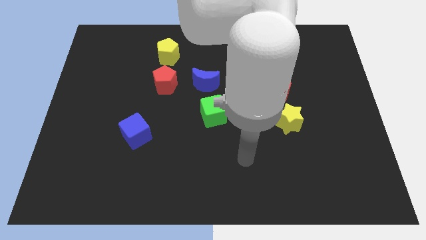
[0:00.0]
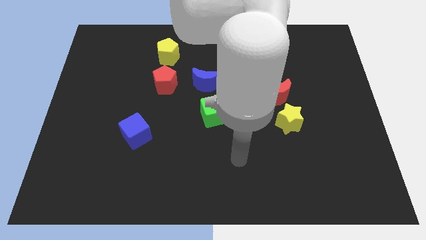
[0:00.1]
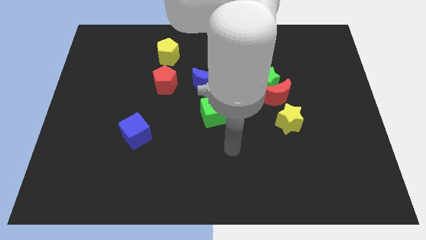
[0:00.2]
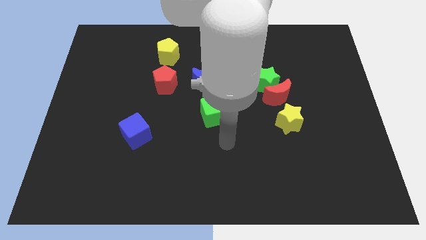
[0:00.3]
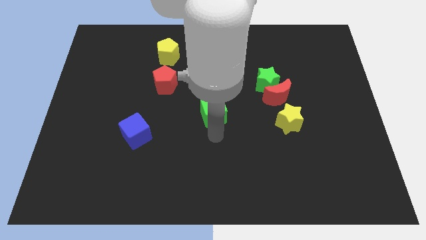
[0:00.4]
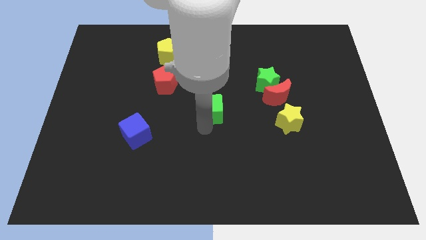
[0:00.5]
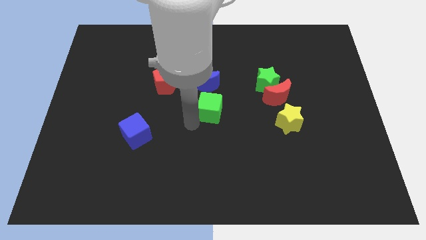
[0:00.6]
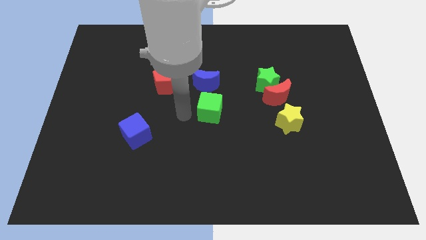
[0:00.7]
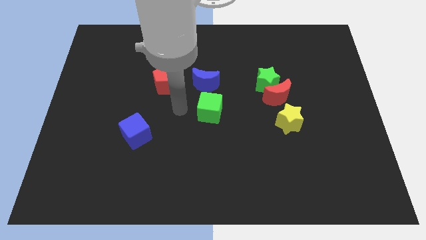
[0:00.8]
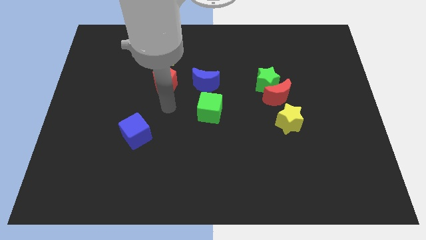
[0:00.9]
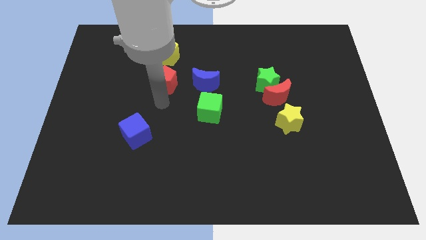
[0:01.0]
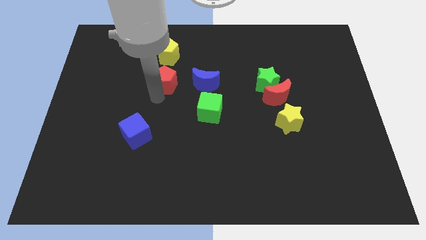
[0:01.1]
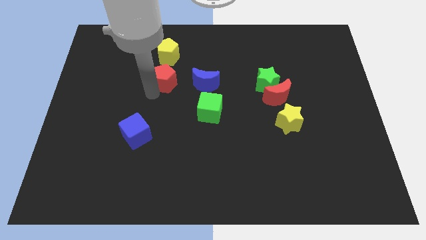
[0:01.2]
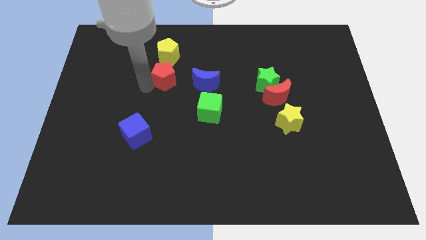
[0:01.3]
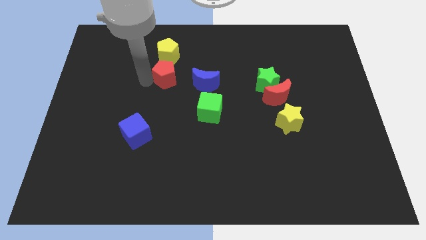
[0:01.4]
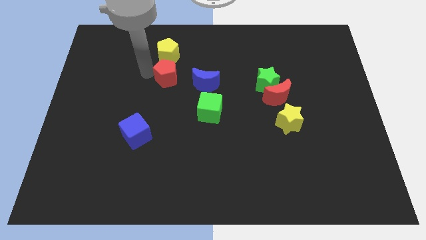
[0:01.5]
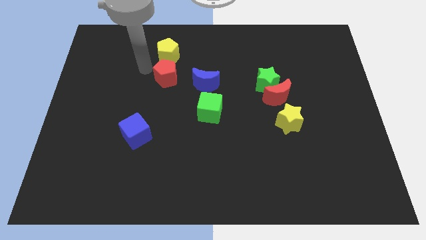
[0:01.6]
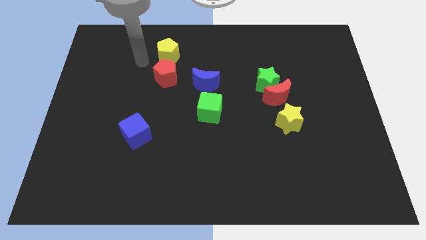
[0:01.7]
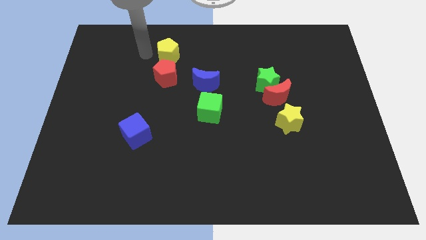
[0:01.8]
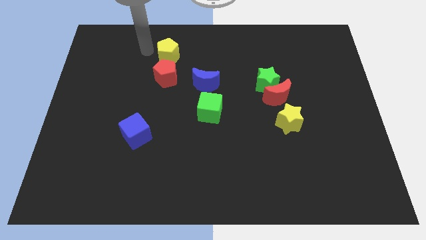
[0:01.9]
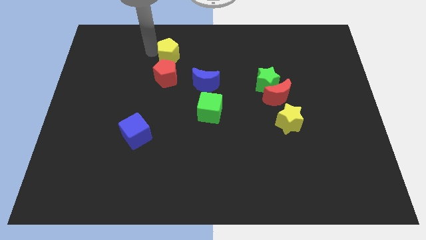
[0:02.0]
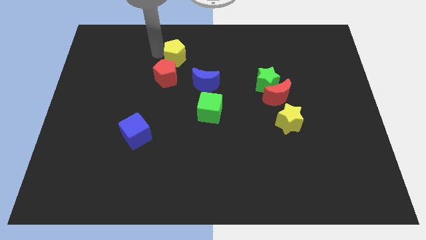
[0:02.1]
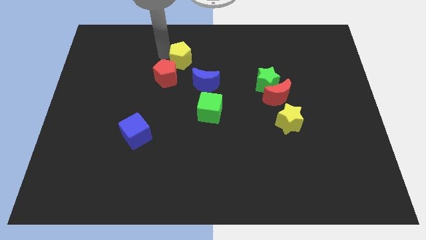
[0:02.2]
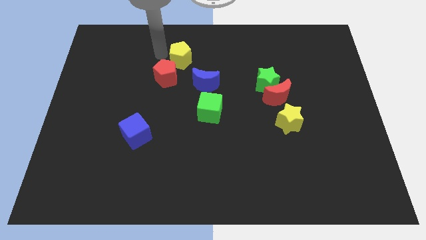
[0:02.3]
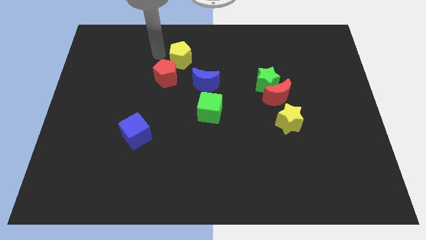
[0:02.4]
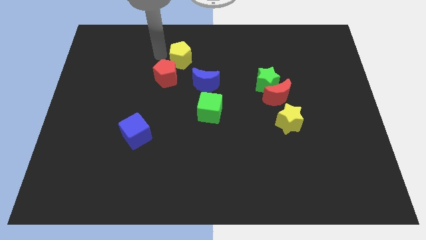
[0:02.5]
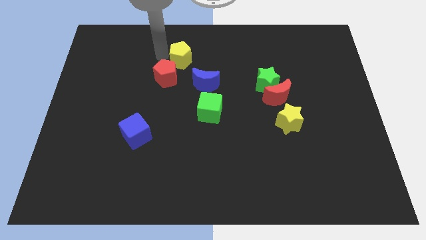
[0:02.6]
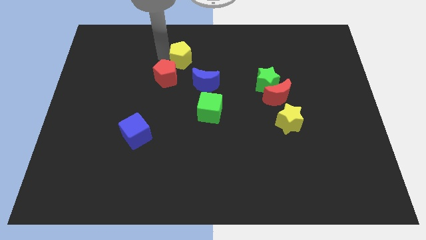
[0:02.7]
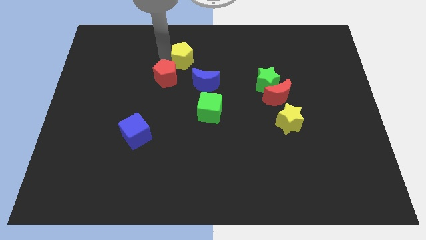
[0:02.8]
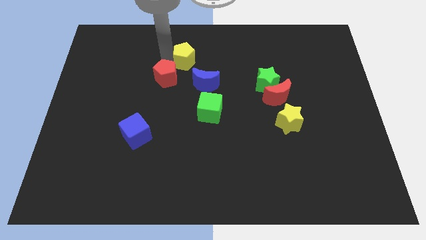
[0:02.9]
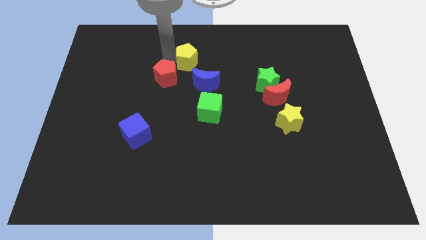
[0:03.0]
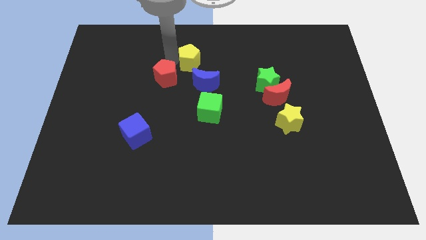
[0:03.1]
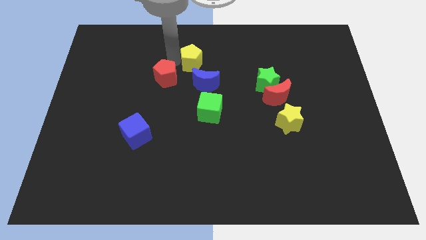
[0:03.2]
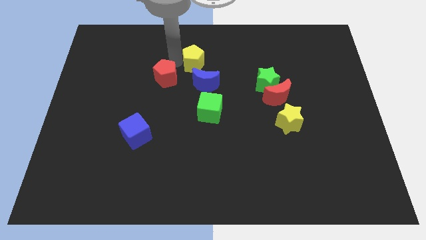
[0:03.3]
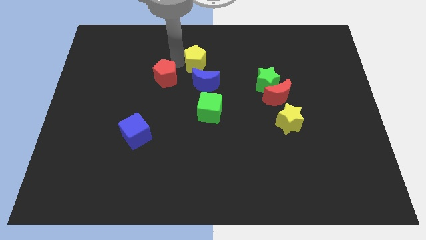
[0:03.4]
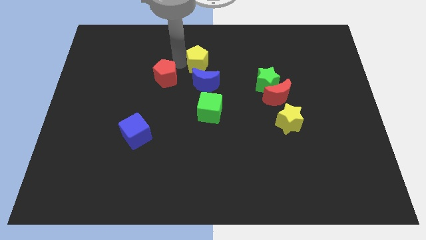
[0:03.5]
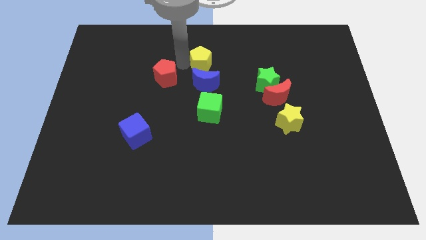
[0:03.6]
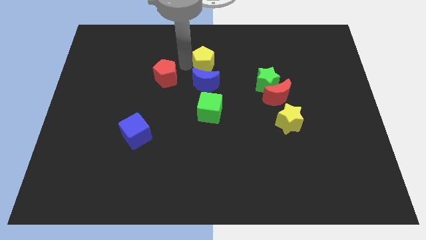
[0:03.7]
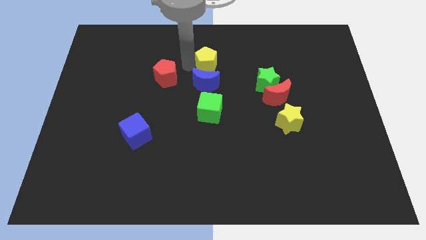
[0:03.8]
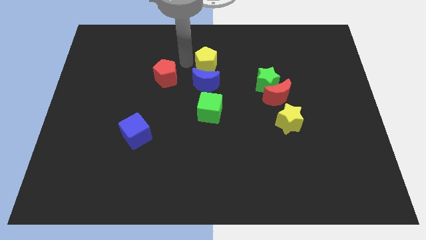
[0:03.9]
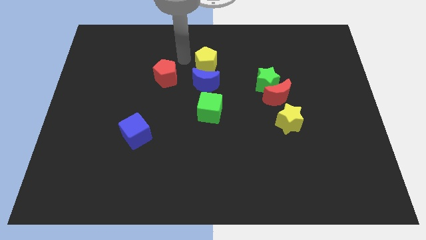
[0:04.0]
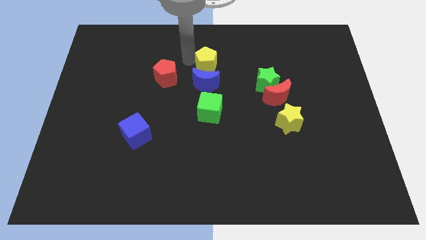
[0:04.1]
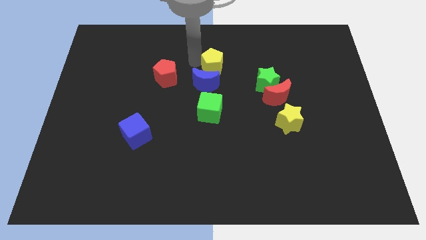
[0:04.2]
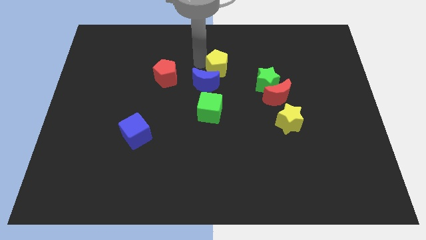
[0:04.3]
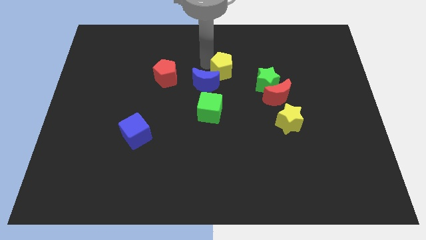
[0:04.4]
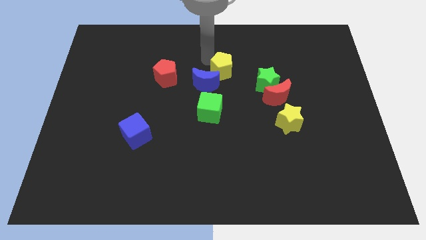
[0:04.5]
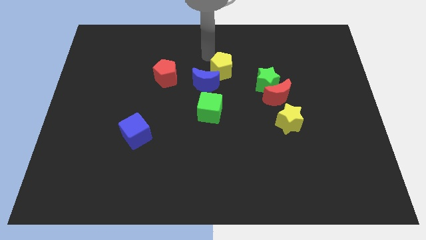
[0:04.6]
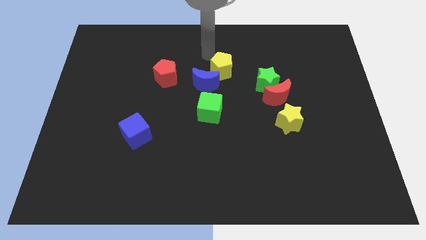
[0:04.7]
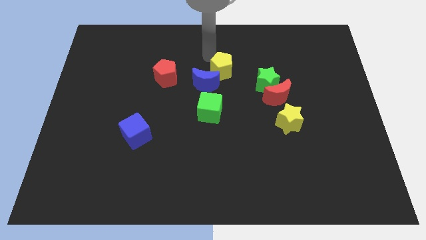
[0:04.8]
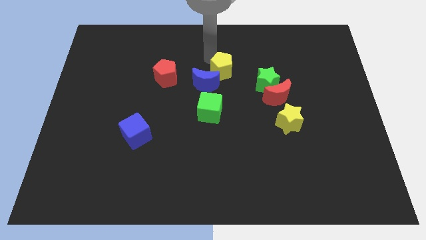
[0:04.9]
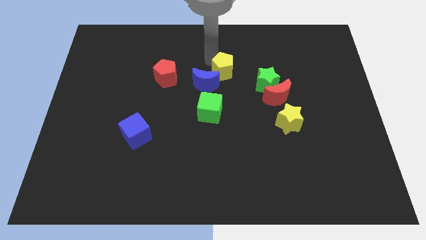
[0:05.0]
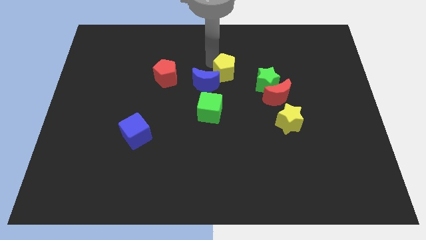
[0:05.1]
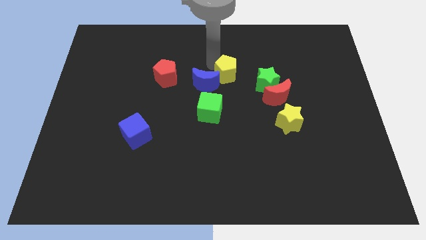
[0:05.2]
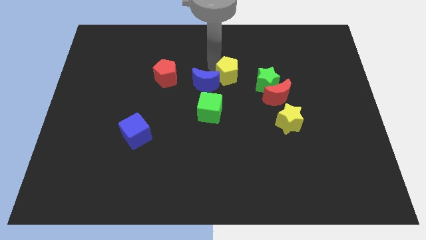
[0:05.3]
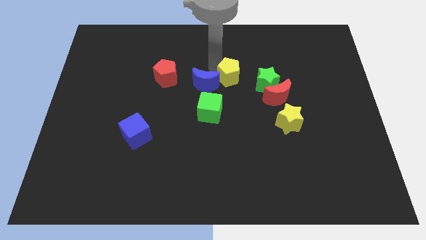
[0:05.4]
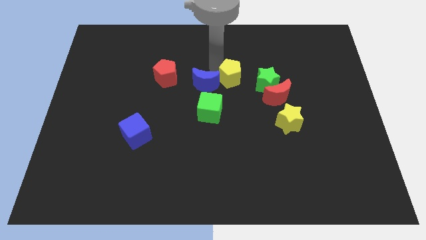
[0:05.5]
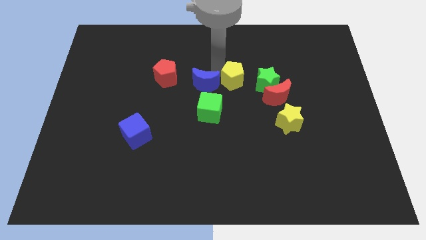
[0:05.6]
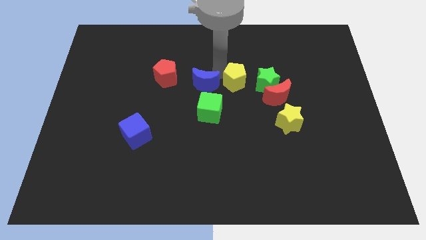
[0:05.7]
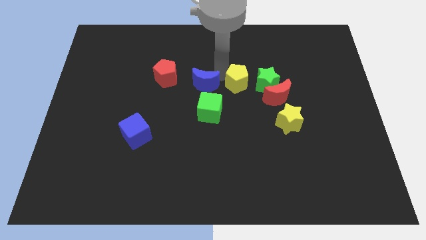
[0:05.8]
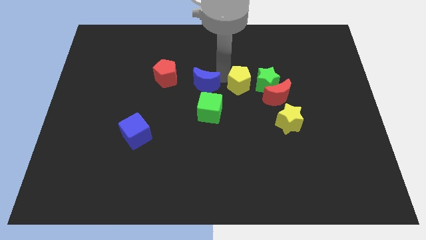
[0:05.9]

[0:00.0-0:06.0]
put the yellow pentagon diagonally down and to the left of the green star
